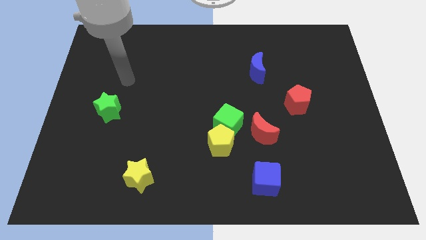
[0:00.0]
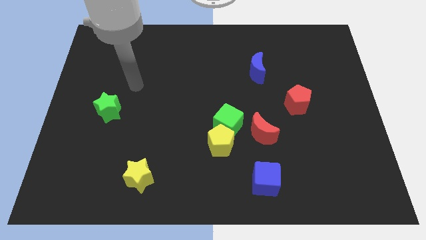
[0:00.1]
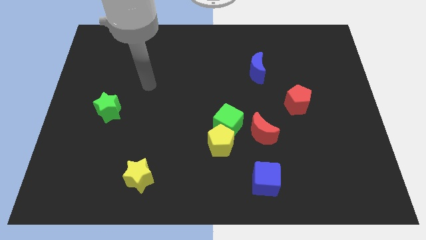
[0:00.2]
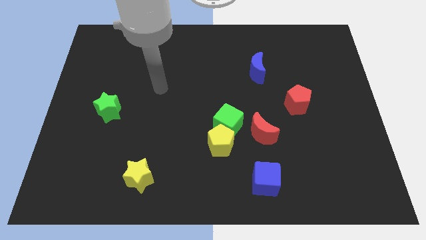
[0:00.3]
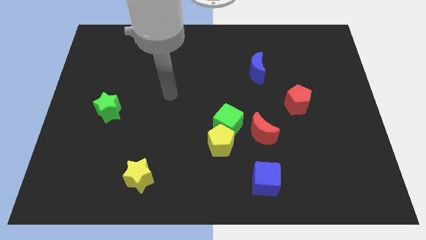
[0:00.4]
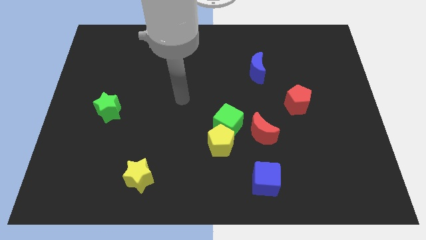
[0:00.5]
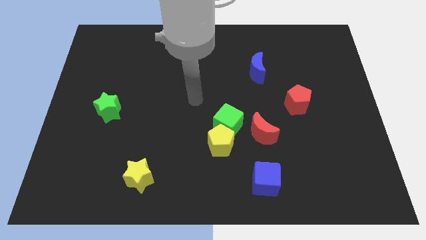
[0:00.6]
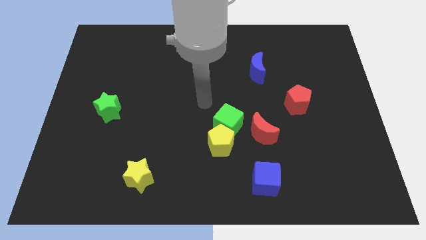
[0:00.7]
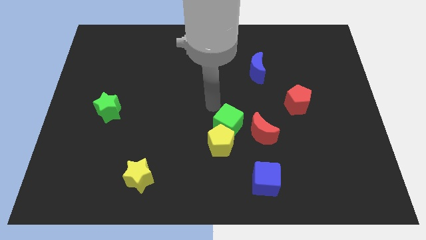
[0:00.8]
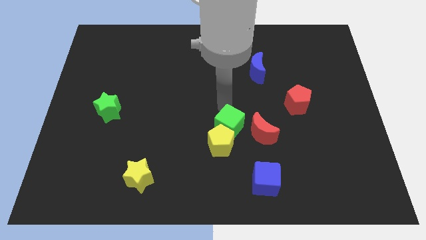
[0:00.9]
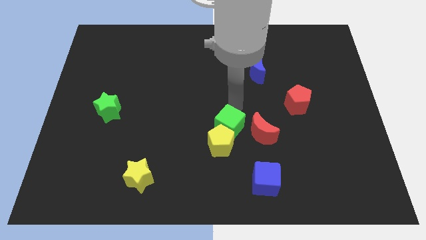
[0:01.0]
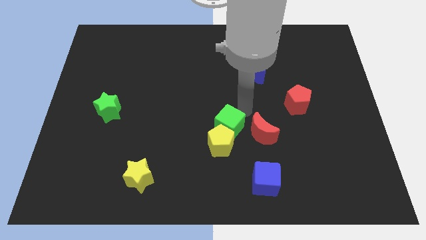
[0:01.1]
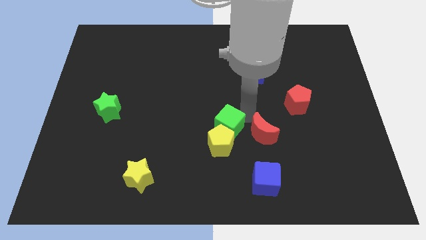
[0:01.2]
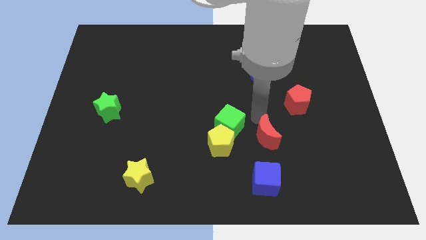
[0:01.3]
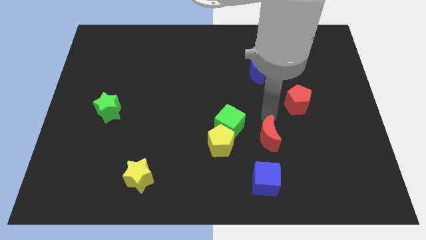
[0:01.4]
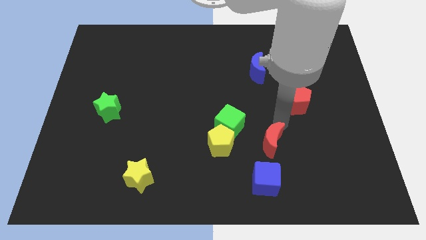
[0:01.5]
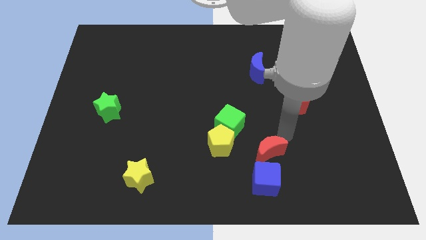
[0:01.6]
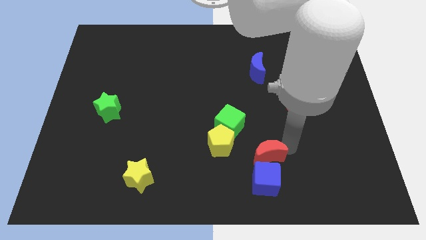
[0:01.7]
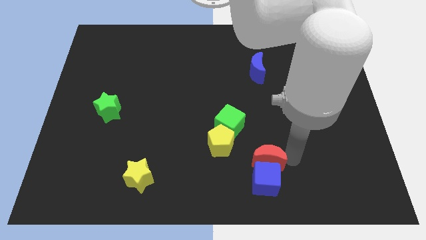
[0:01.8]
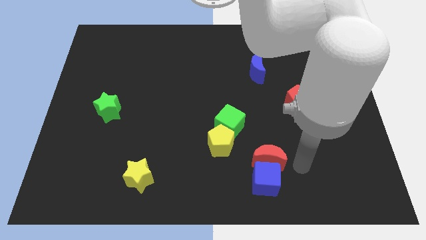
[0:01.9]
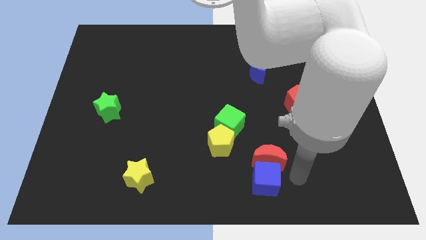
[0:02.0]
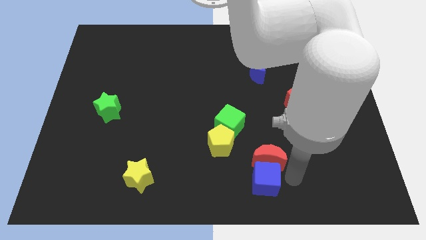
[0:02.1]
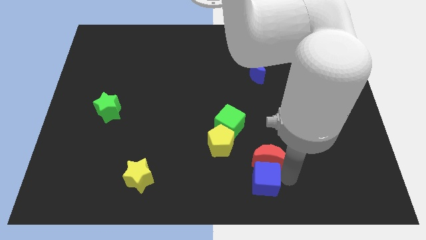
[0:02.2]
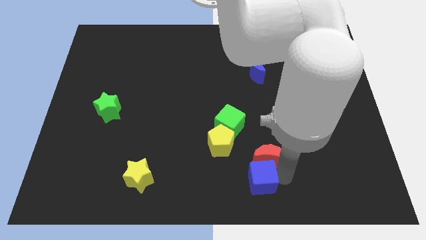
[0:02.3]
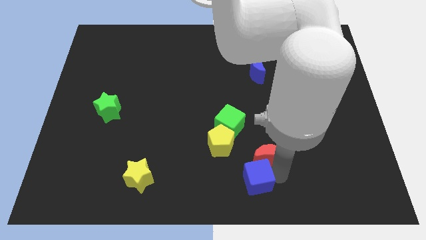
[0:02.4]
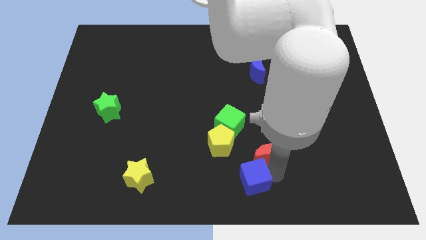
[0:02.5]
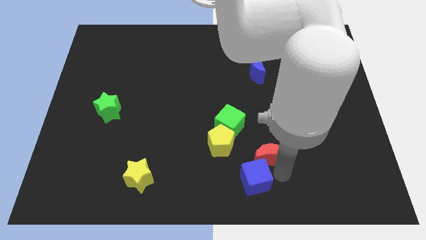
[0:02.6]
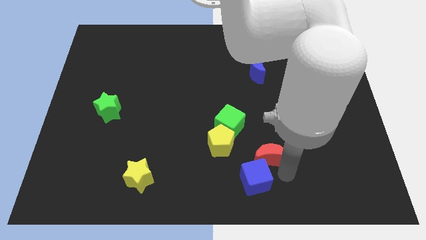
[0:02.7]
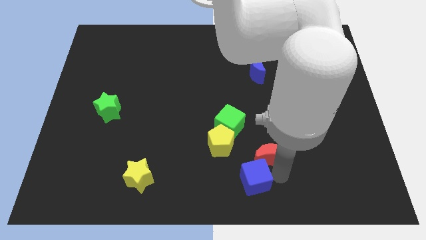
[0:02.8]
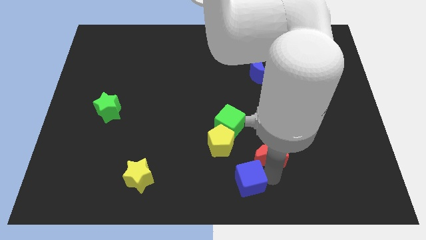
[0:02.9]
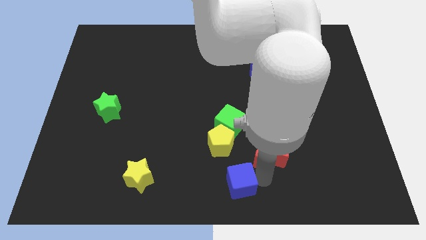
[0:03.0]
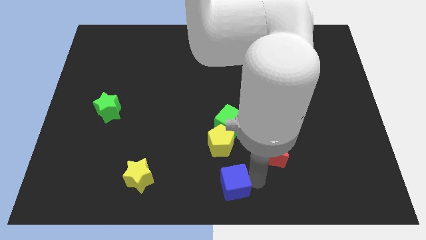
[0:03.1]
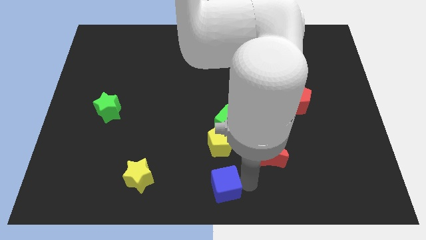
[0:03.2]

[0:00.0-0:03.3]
slightly push the blue cube left

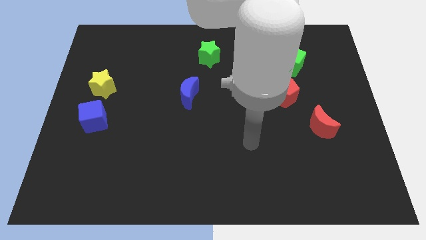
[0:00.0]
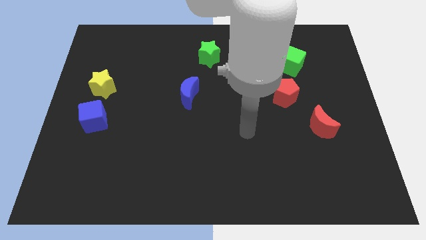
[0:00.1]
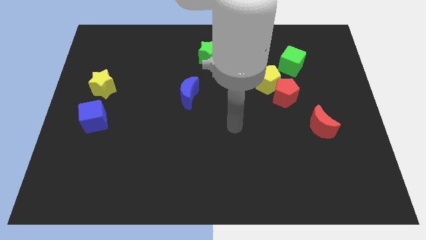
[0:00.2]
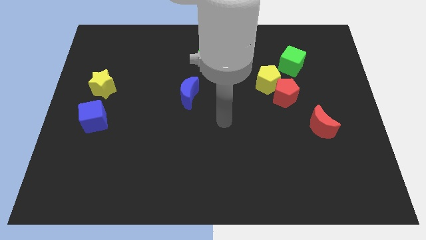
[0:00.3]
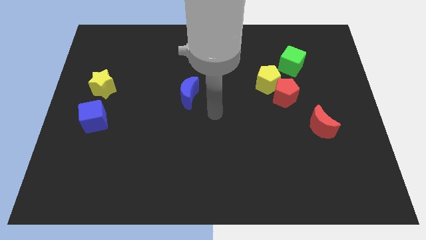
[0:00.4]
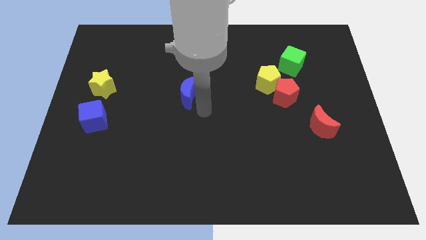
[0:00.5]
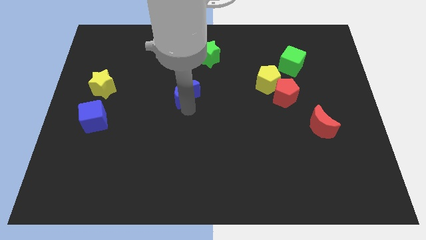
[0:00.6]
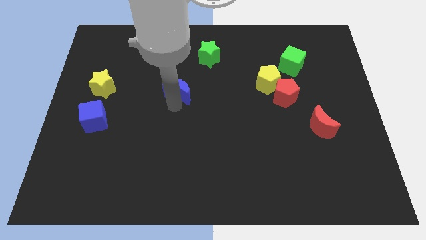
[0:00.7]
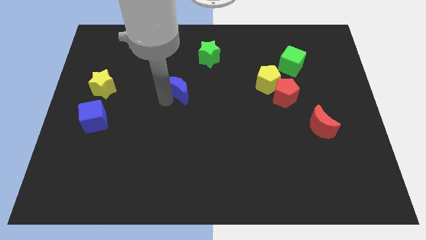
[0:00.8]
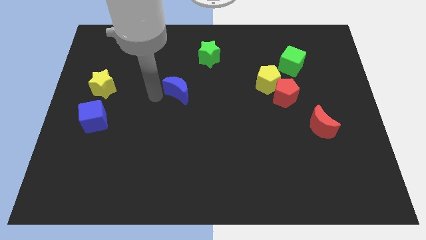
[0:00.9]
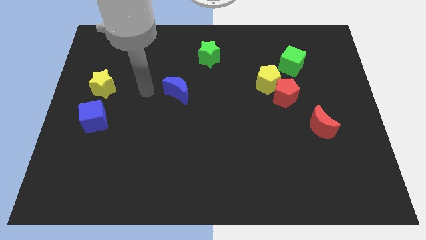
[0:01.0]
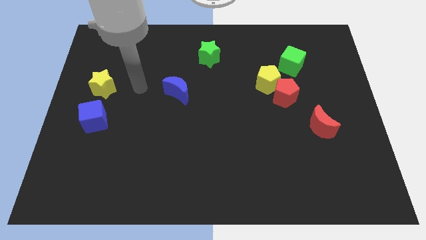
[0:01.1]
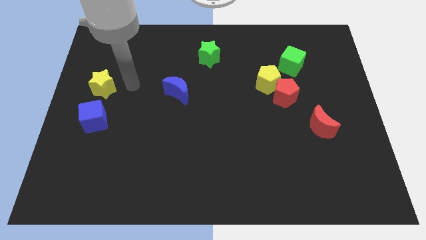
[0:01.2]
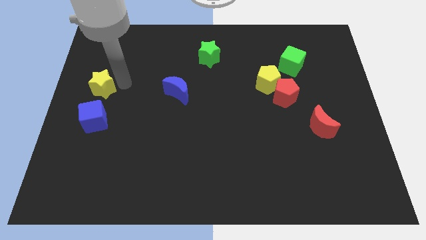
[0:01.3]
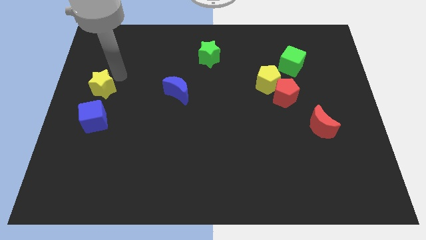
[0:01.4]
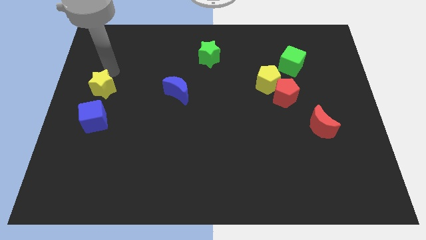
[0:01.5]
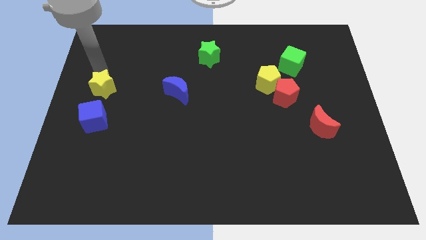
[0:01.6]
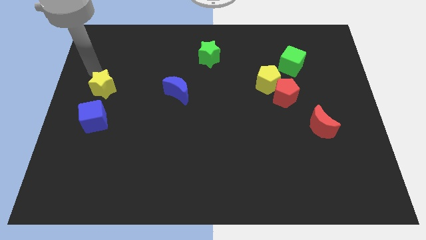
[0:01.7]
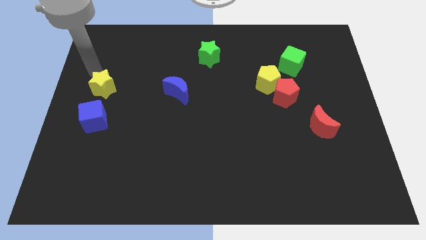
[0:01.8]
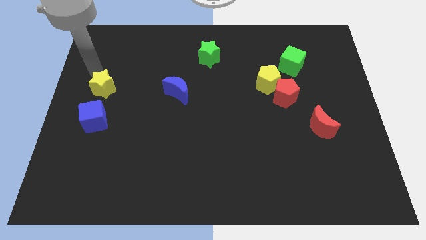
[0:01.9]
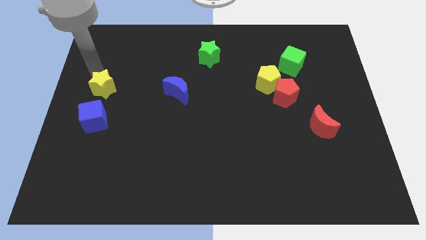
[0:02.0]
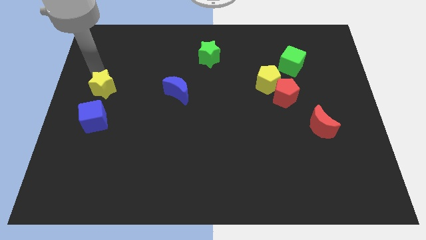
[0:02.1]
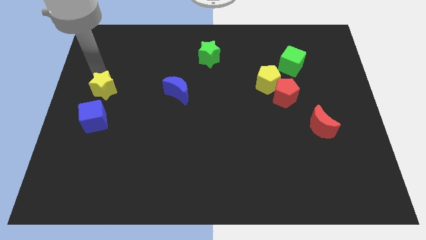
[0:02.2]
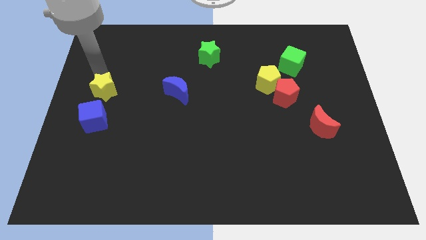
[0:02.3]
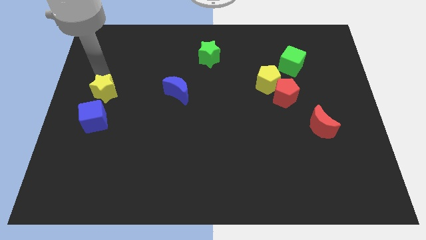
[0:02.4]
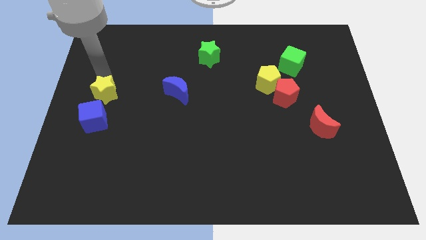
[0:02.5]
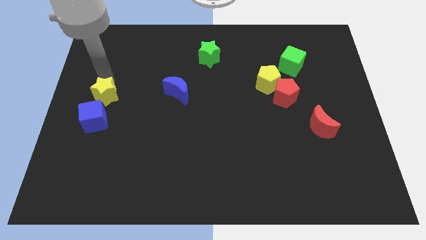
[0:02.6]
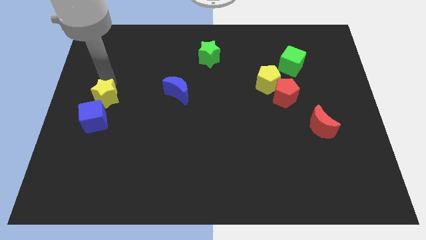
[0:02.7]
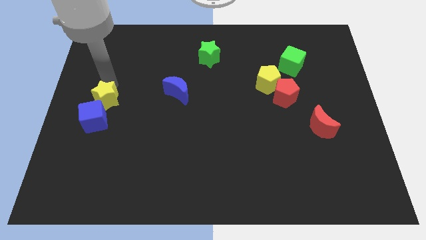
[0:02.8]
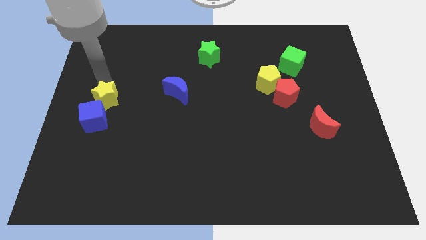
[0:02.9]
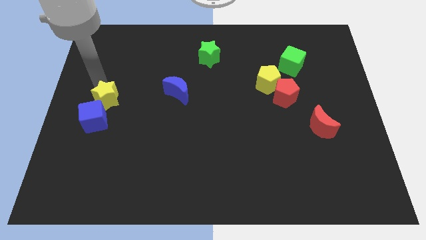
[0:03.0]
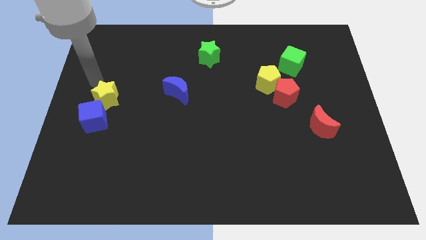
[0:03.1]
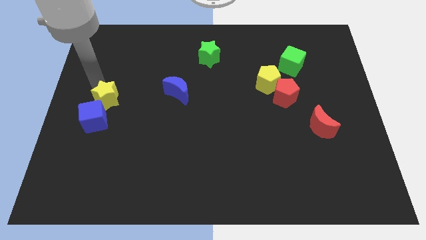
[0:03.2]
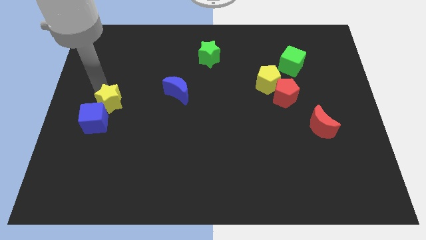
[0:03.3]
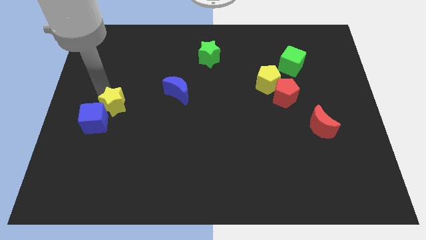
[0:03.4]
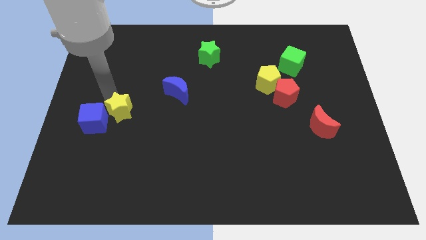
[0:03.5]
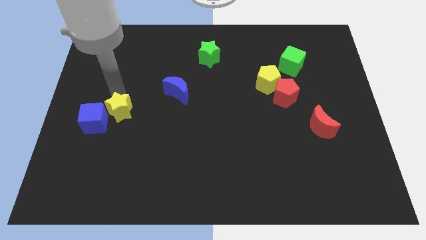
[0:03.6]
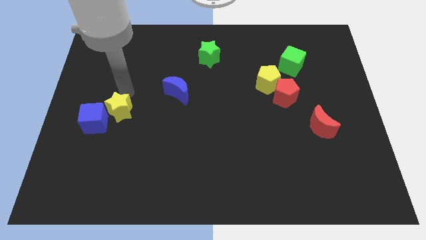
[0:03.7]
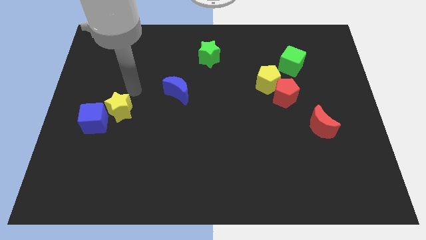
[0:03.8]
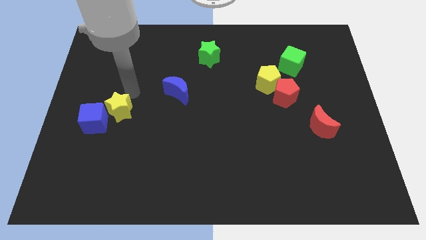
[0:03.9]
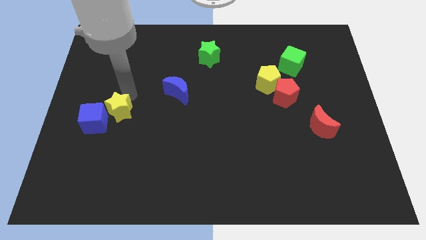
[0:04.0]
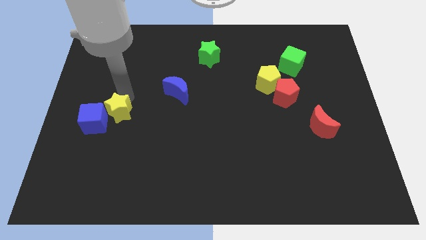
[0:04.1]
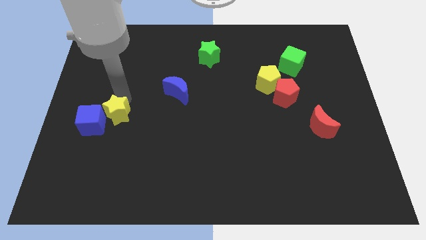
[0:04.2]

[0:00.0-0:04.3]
move the yellow star down a little

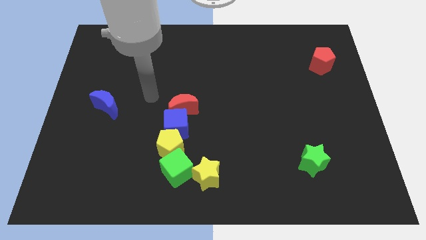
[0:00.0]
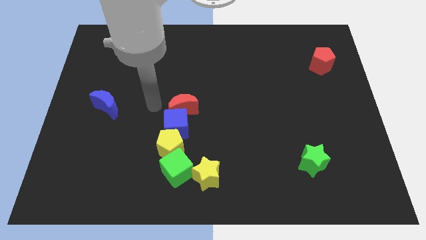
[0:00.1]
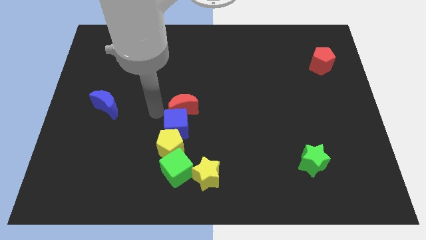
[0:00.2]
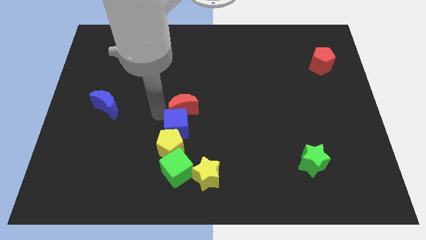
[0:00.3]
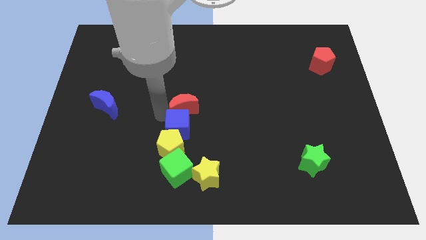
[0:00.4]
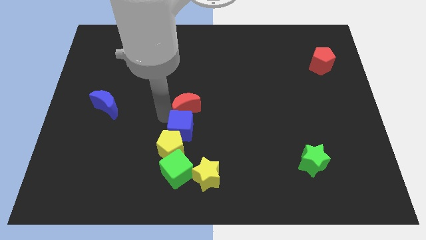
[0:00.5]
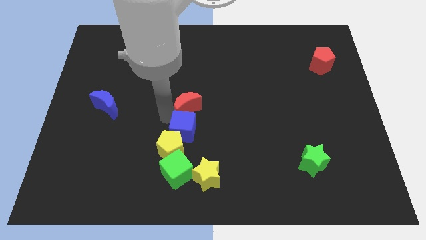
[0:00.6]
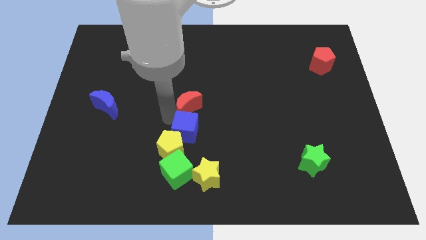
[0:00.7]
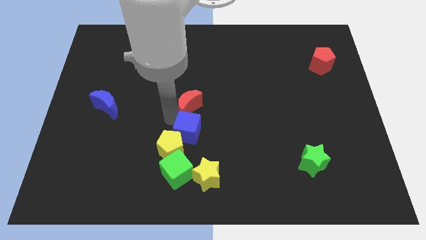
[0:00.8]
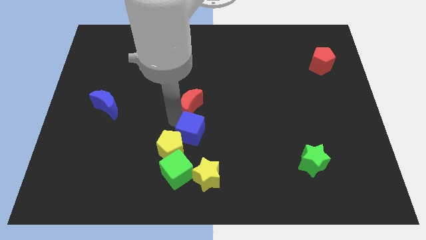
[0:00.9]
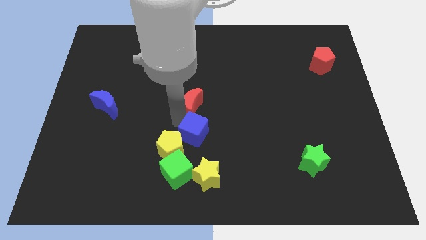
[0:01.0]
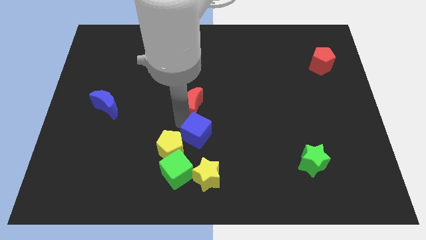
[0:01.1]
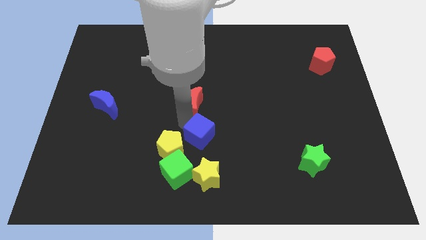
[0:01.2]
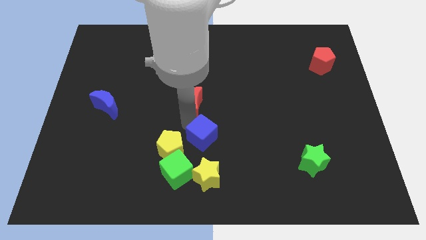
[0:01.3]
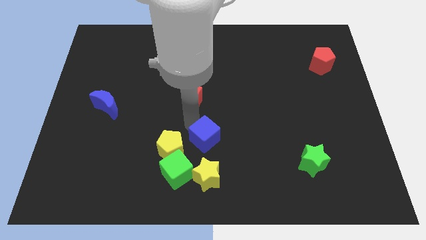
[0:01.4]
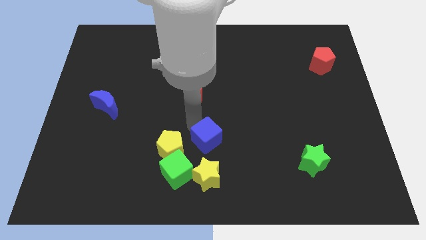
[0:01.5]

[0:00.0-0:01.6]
move the blue cube a bit diagonally down and to the right
